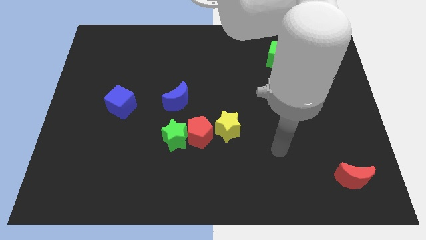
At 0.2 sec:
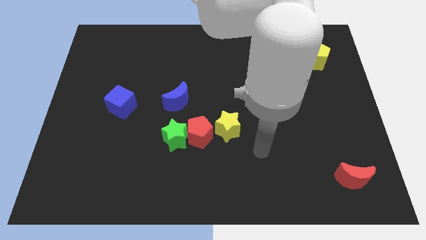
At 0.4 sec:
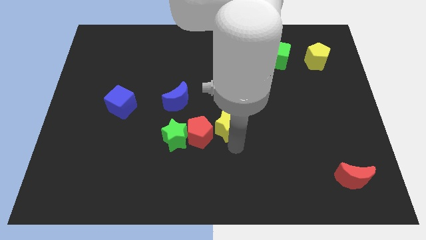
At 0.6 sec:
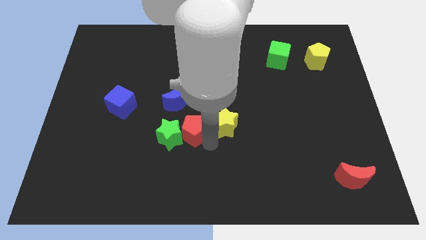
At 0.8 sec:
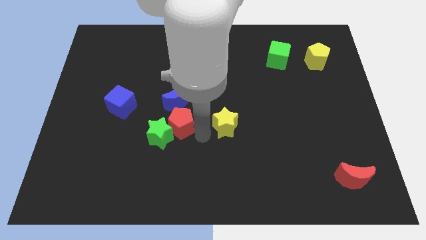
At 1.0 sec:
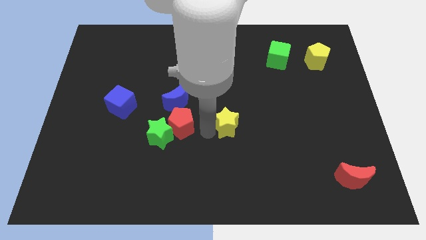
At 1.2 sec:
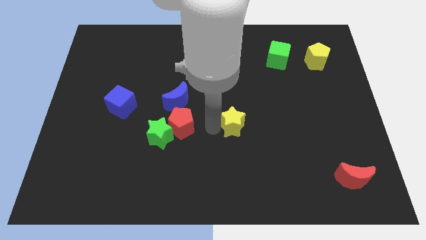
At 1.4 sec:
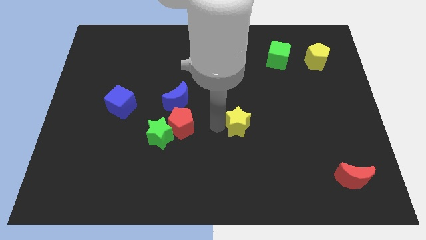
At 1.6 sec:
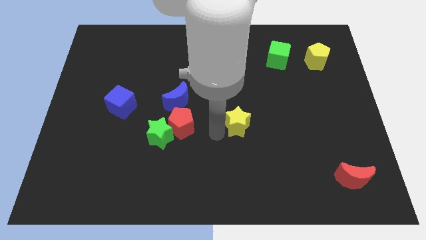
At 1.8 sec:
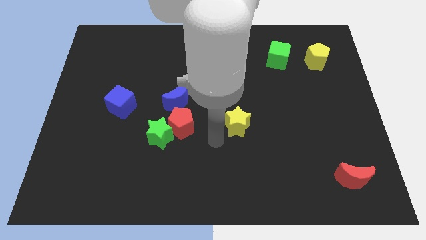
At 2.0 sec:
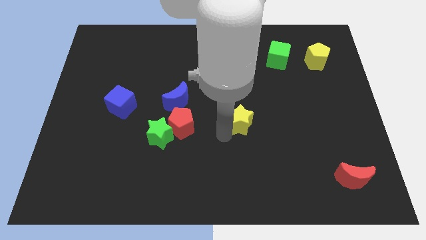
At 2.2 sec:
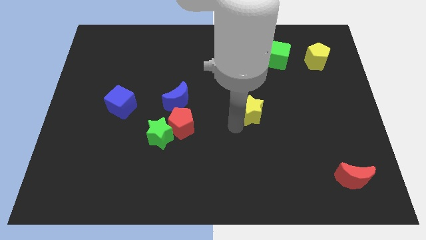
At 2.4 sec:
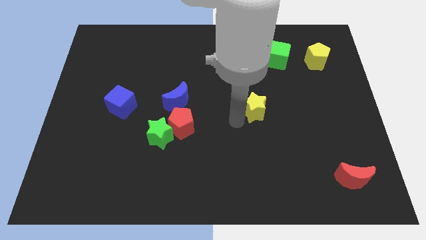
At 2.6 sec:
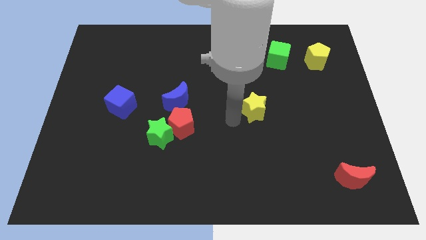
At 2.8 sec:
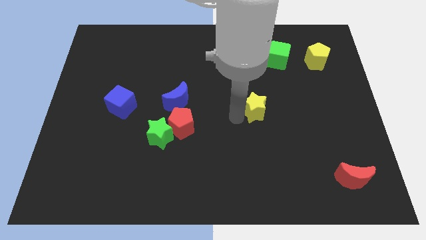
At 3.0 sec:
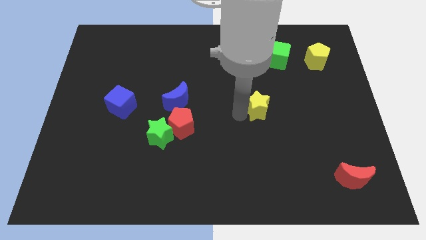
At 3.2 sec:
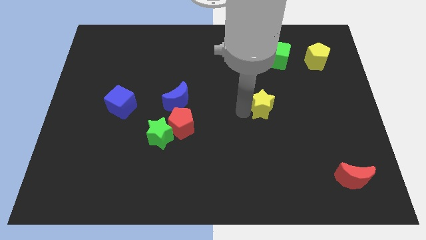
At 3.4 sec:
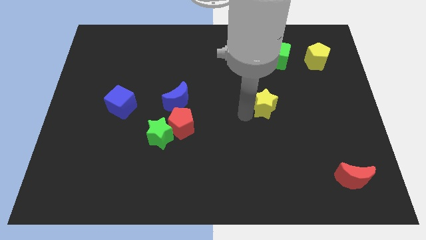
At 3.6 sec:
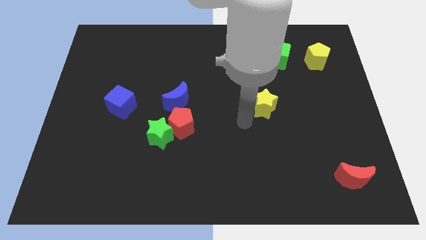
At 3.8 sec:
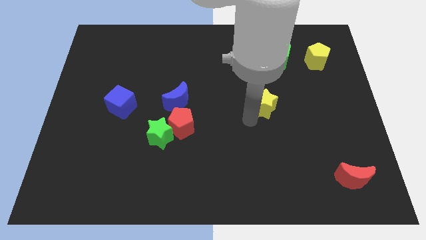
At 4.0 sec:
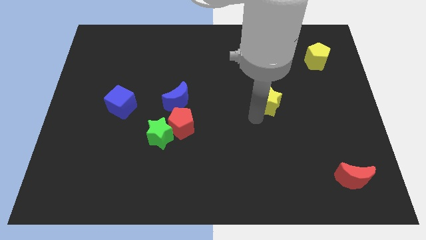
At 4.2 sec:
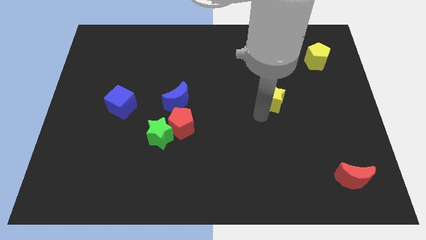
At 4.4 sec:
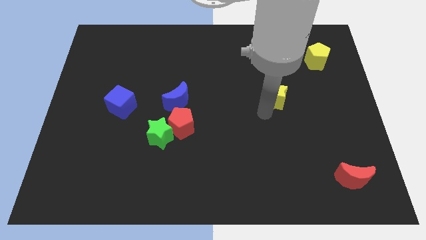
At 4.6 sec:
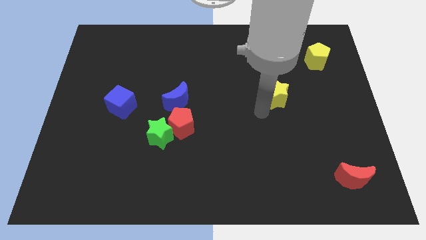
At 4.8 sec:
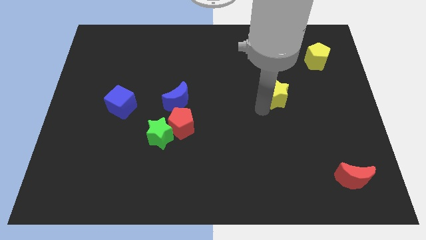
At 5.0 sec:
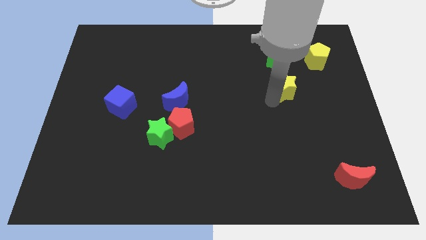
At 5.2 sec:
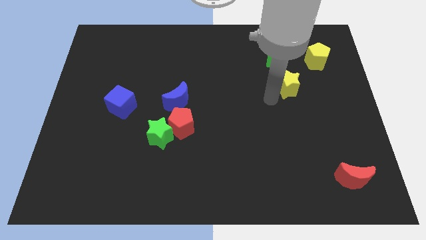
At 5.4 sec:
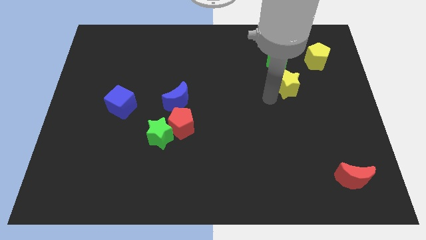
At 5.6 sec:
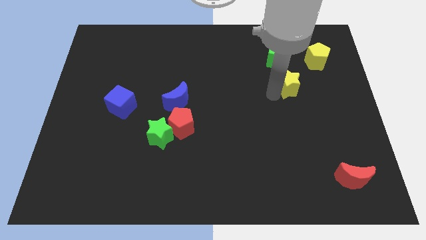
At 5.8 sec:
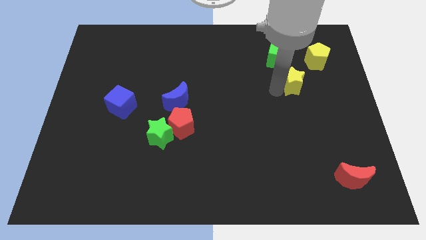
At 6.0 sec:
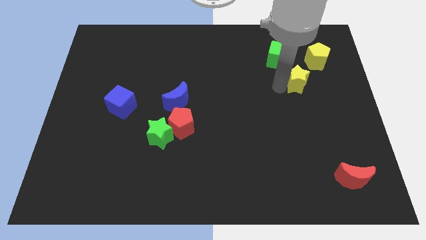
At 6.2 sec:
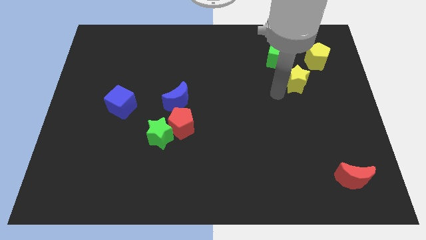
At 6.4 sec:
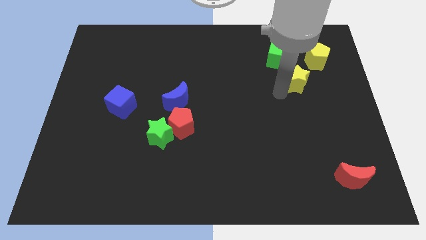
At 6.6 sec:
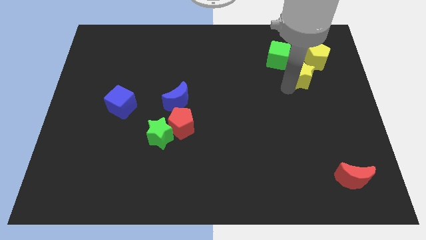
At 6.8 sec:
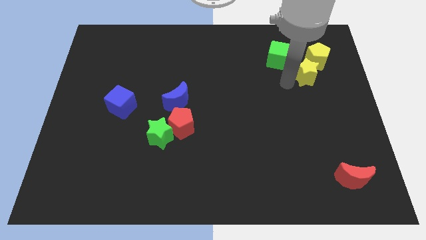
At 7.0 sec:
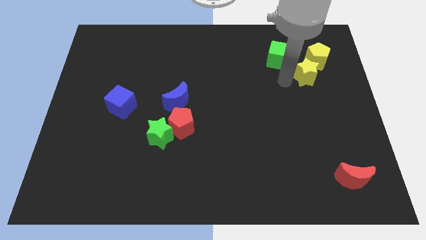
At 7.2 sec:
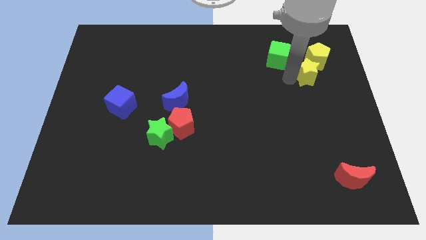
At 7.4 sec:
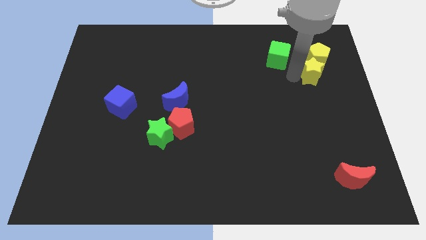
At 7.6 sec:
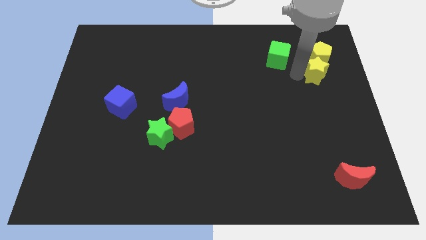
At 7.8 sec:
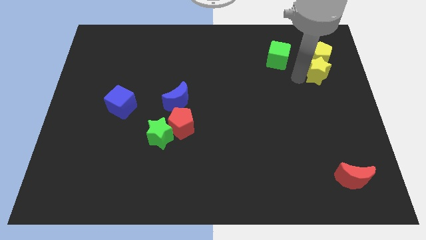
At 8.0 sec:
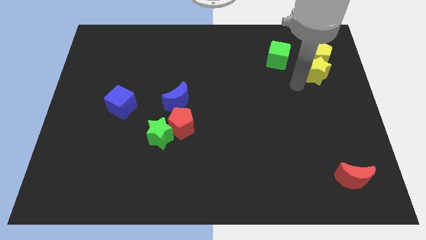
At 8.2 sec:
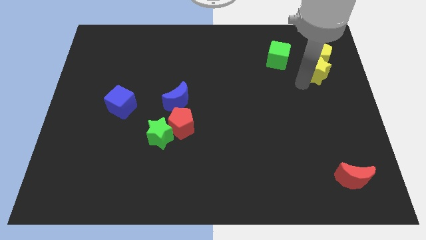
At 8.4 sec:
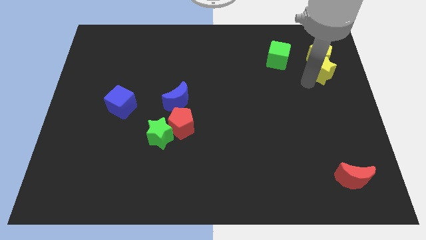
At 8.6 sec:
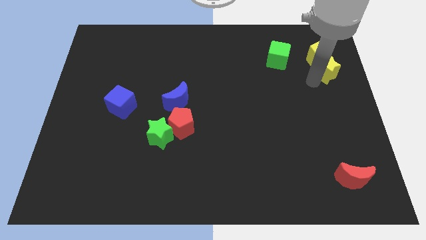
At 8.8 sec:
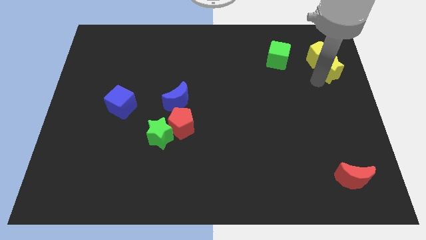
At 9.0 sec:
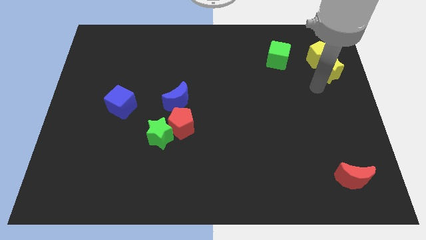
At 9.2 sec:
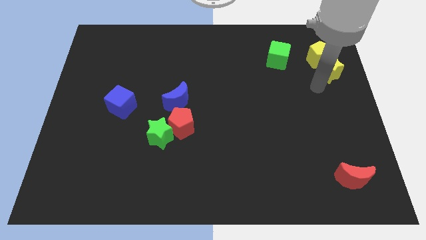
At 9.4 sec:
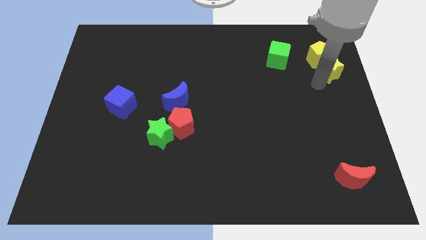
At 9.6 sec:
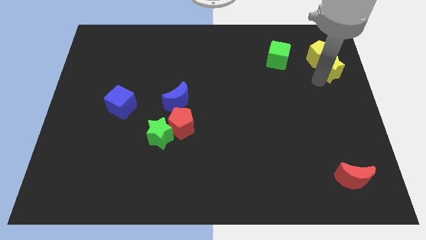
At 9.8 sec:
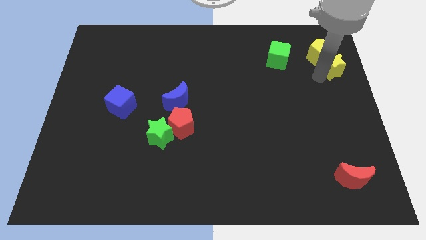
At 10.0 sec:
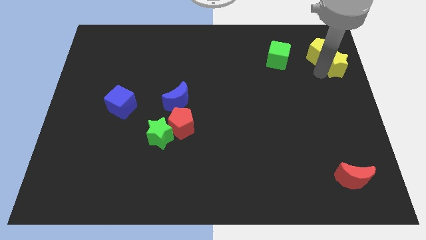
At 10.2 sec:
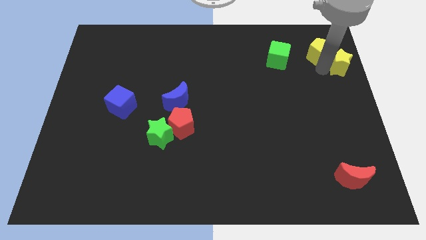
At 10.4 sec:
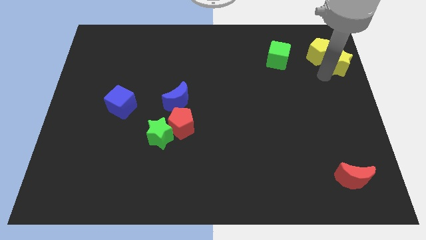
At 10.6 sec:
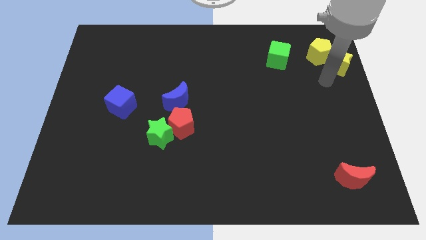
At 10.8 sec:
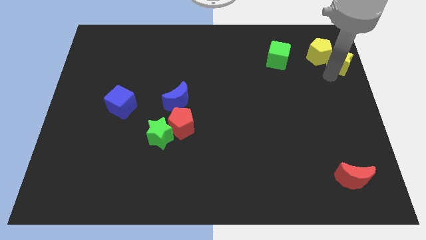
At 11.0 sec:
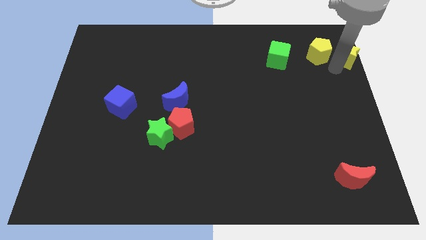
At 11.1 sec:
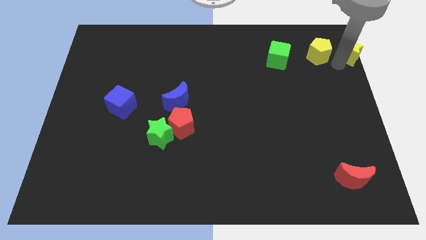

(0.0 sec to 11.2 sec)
slide the yellow star to the upper right corner

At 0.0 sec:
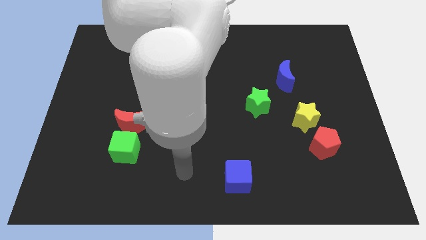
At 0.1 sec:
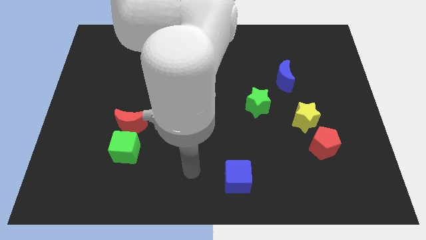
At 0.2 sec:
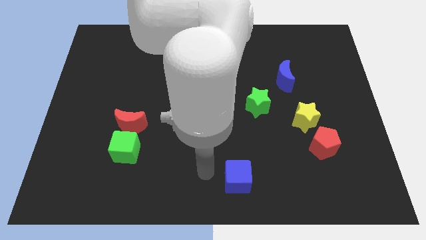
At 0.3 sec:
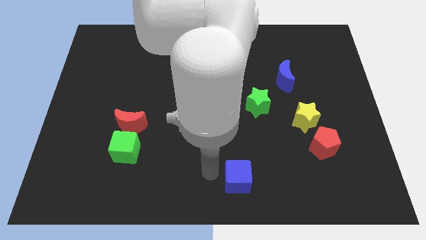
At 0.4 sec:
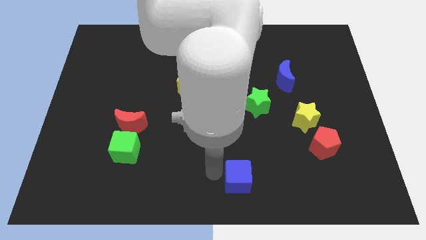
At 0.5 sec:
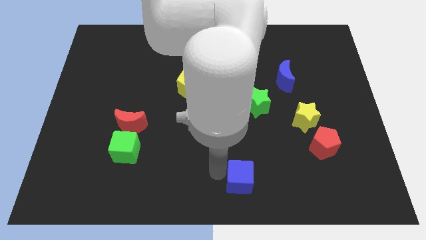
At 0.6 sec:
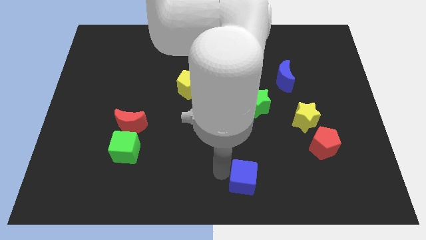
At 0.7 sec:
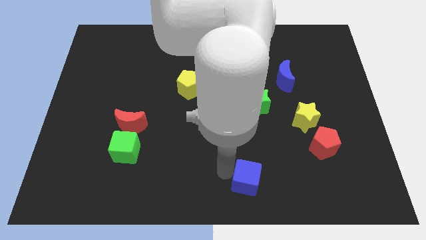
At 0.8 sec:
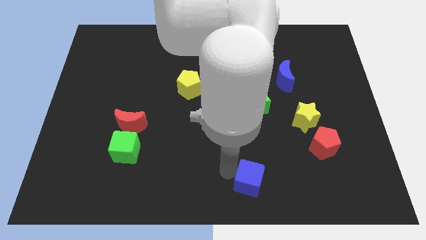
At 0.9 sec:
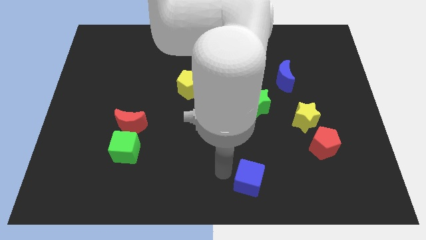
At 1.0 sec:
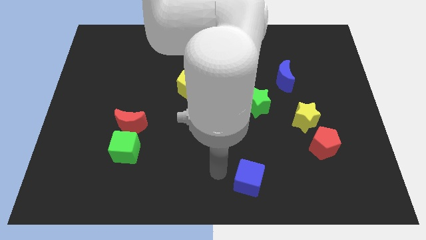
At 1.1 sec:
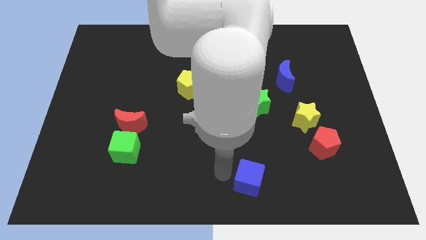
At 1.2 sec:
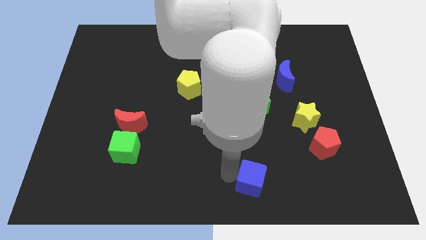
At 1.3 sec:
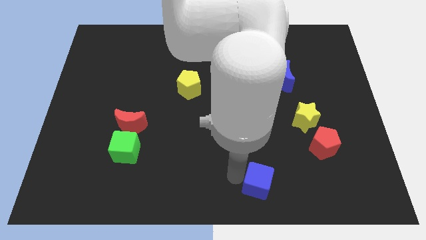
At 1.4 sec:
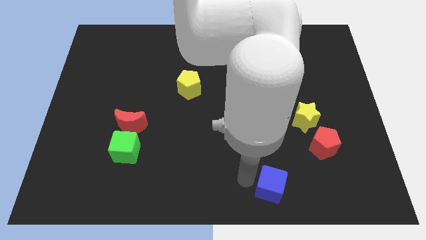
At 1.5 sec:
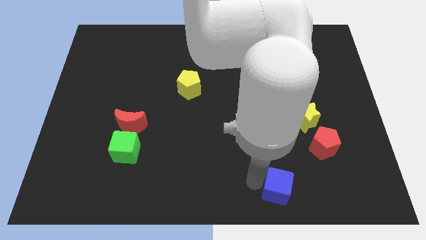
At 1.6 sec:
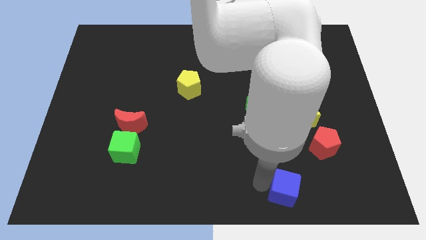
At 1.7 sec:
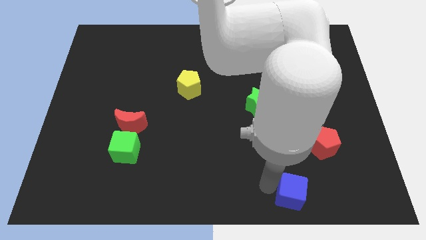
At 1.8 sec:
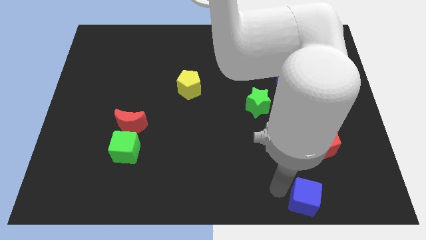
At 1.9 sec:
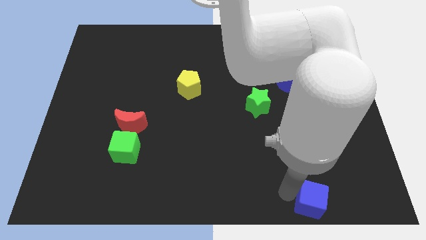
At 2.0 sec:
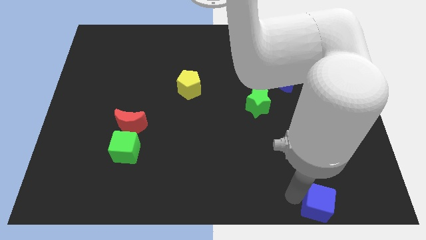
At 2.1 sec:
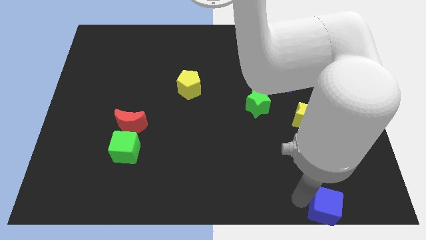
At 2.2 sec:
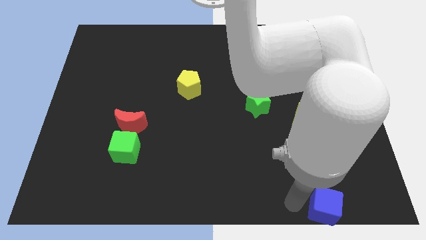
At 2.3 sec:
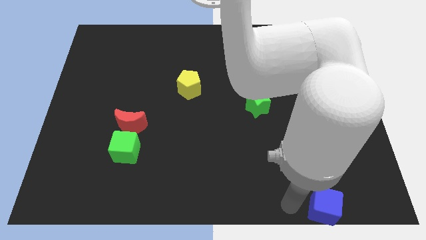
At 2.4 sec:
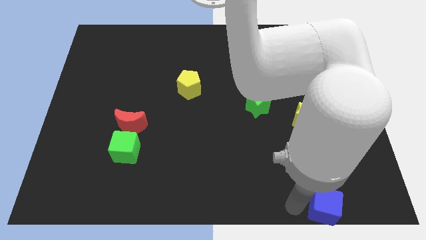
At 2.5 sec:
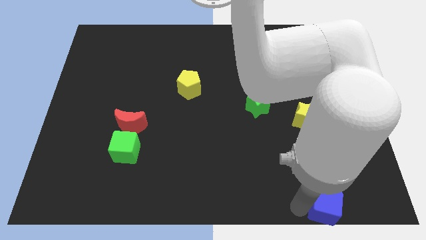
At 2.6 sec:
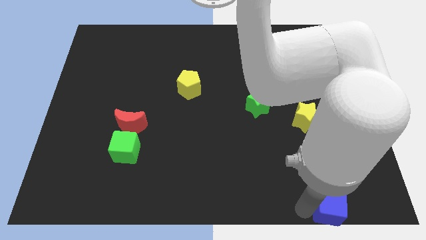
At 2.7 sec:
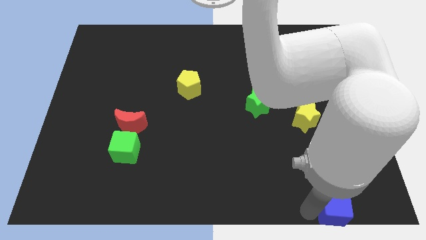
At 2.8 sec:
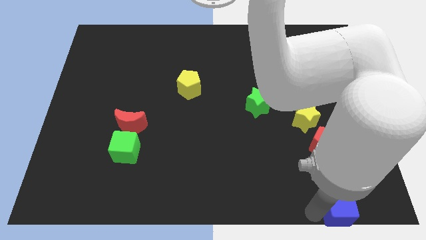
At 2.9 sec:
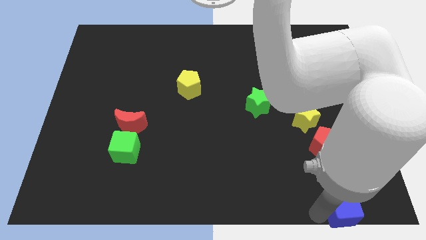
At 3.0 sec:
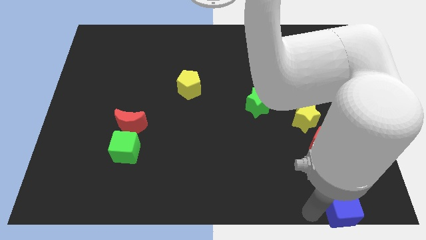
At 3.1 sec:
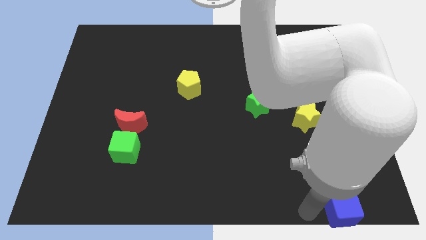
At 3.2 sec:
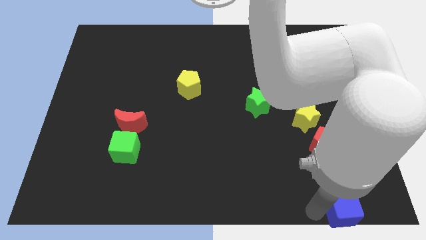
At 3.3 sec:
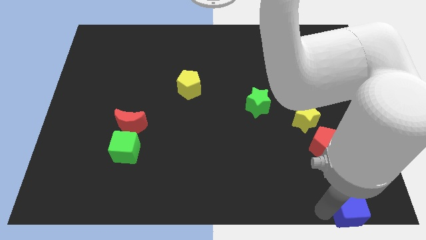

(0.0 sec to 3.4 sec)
move the blue cube to the bottom right of the board
